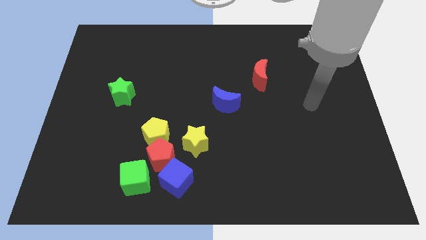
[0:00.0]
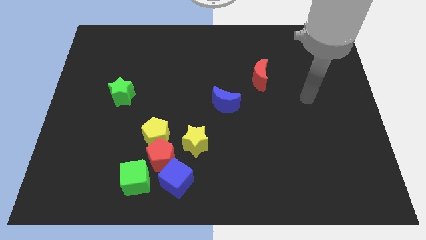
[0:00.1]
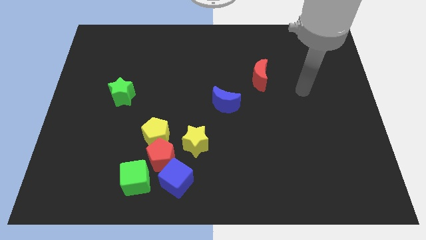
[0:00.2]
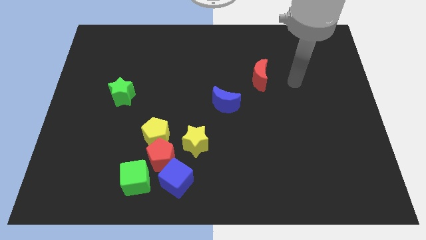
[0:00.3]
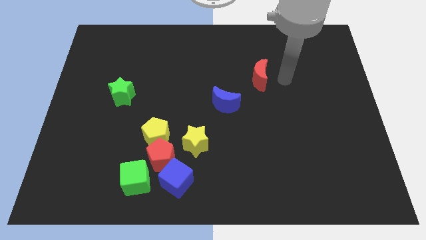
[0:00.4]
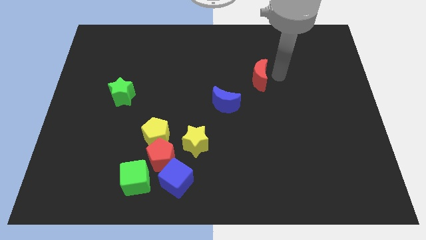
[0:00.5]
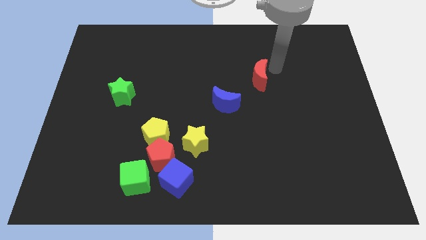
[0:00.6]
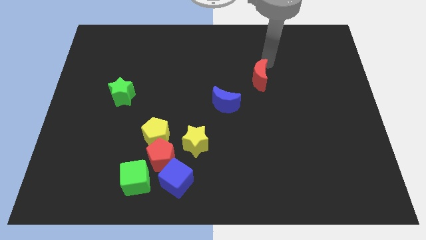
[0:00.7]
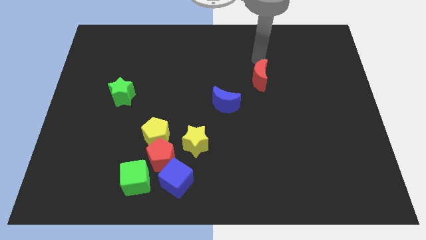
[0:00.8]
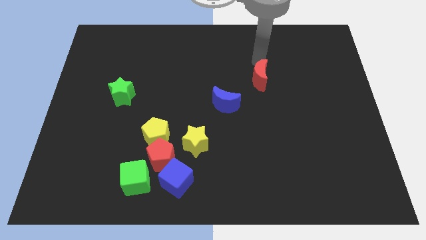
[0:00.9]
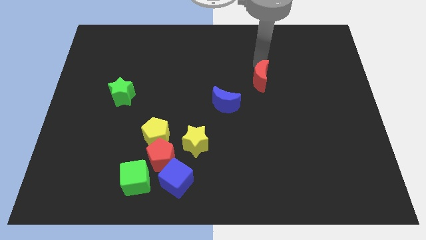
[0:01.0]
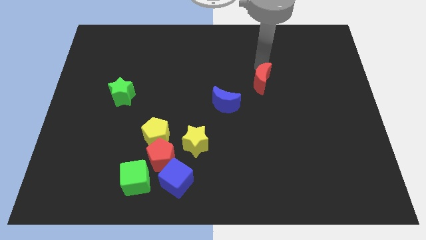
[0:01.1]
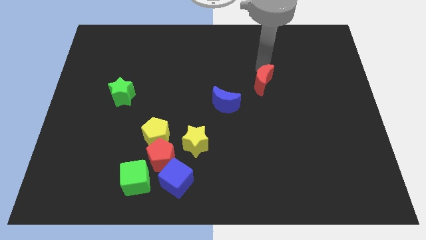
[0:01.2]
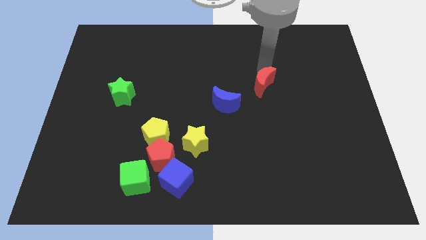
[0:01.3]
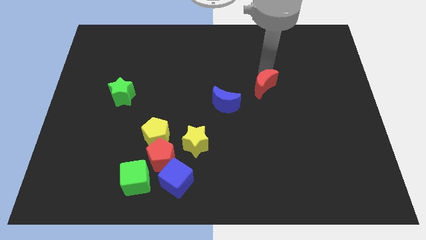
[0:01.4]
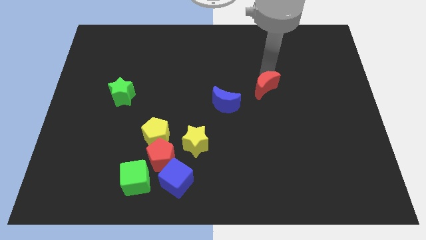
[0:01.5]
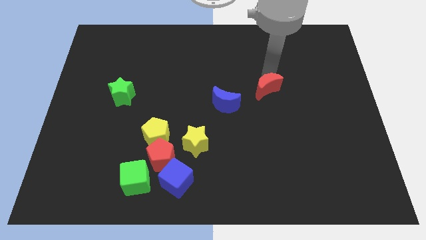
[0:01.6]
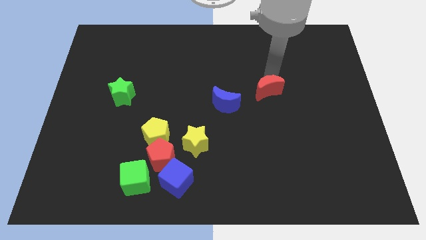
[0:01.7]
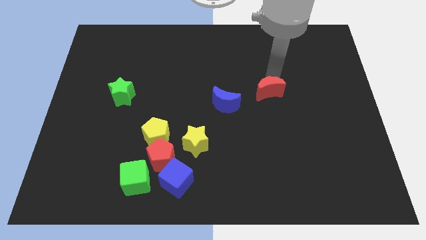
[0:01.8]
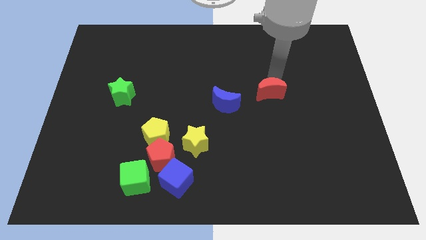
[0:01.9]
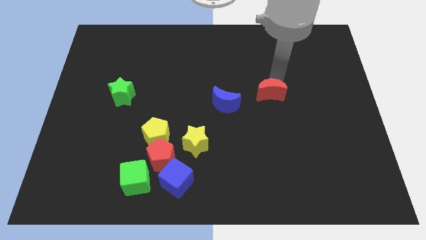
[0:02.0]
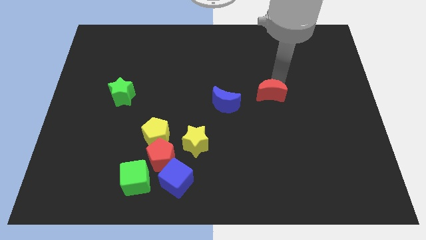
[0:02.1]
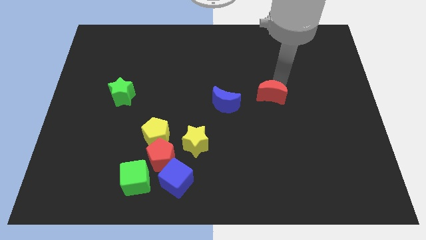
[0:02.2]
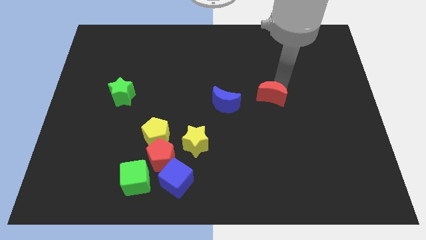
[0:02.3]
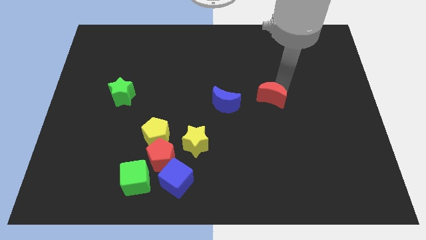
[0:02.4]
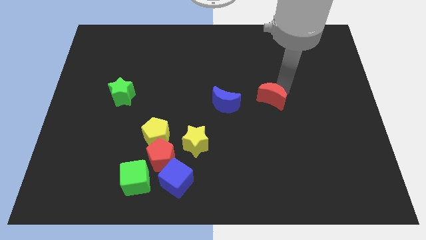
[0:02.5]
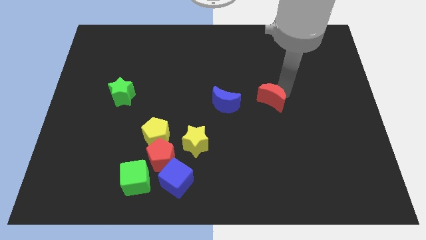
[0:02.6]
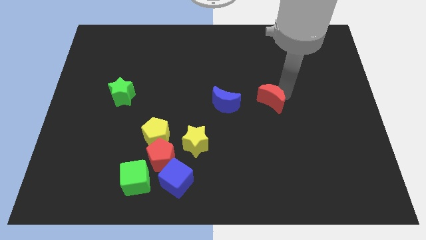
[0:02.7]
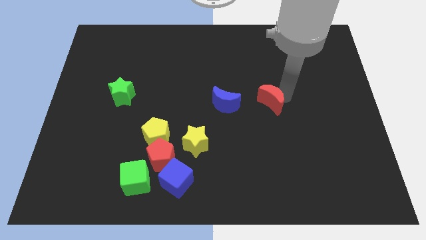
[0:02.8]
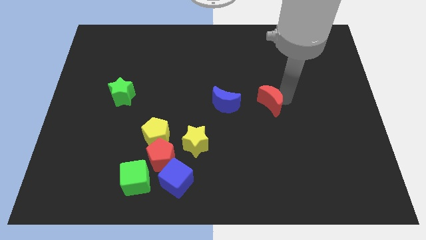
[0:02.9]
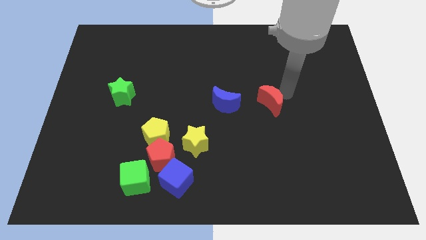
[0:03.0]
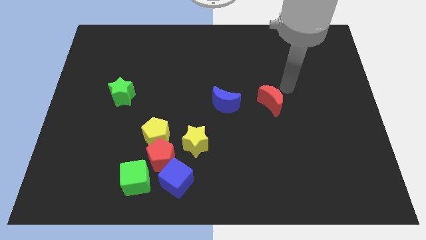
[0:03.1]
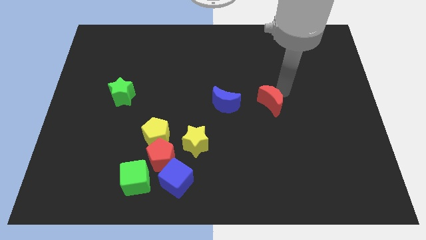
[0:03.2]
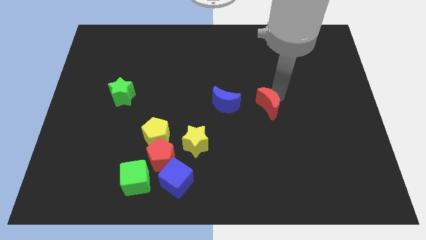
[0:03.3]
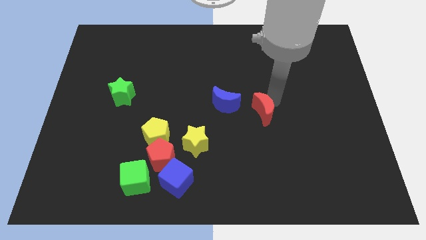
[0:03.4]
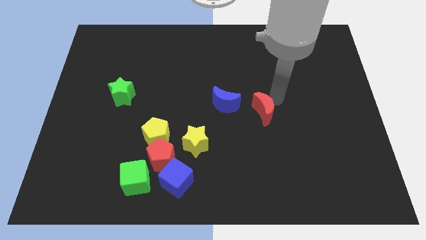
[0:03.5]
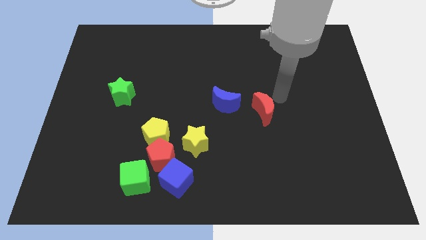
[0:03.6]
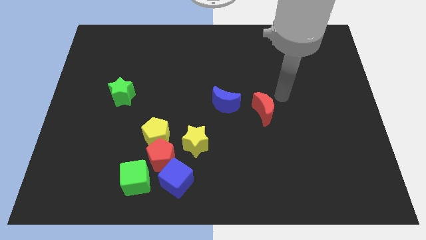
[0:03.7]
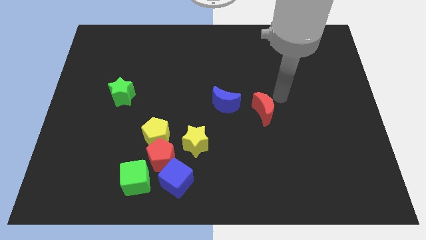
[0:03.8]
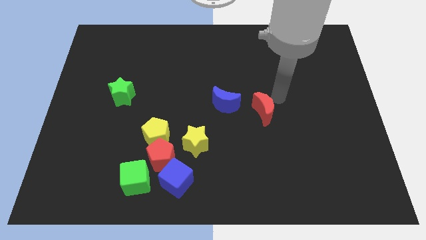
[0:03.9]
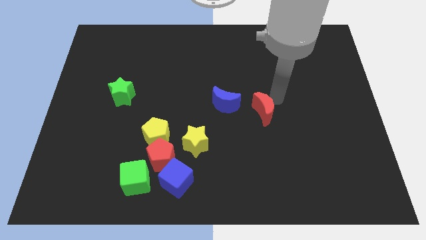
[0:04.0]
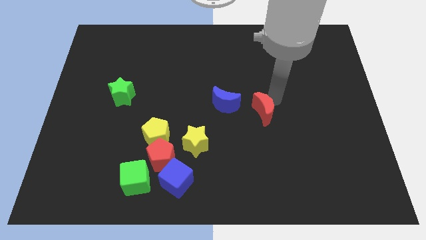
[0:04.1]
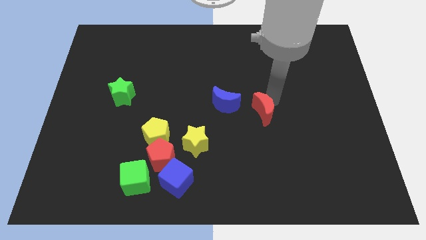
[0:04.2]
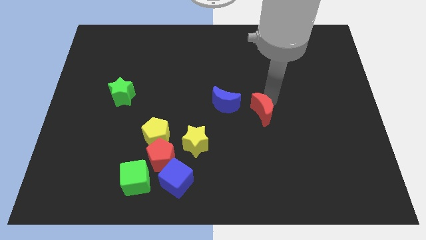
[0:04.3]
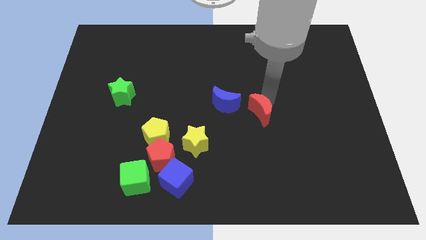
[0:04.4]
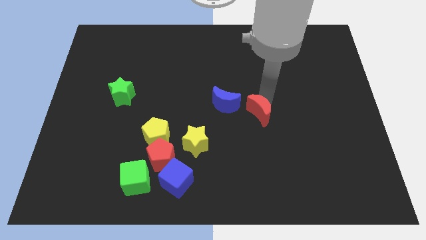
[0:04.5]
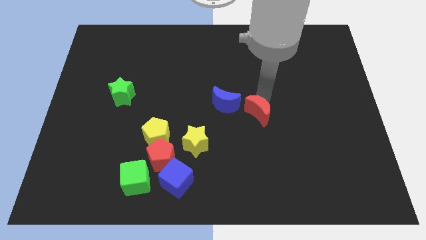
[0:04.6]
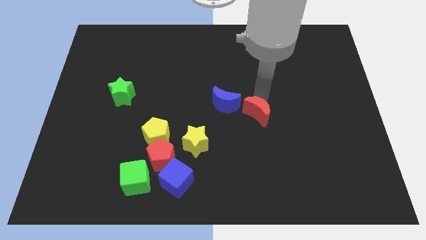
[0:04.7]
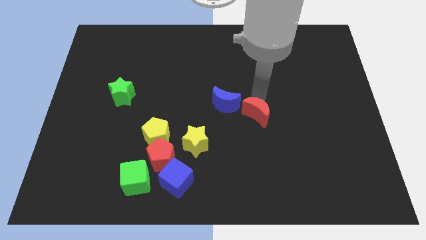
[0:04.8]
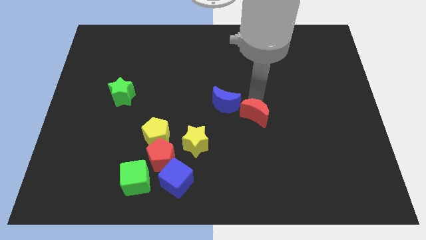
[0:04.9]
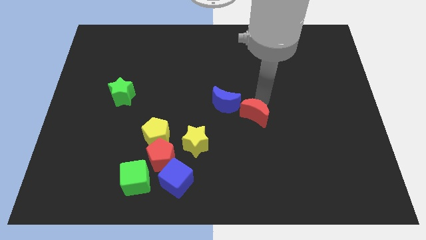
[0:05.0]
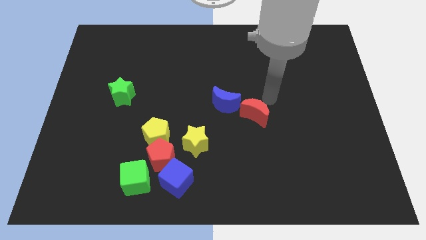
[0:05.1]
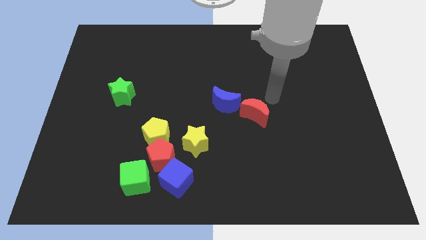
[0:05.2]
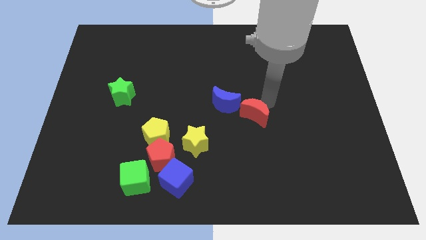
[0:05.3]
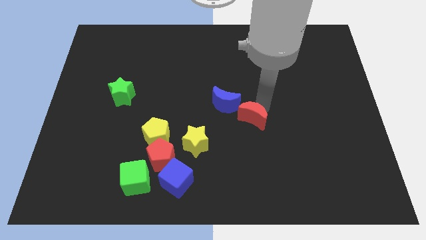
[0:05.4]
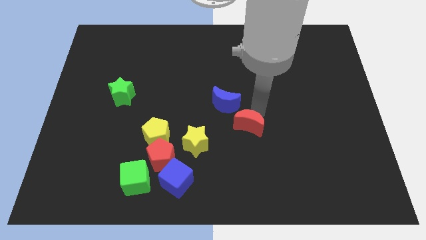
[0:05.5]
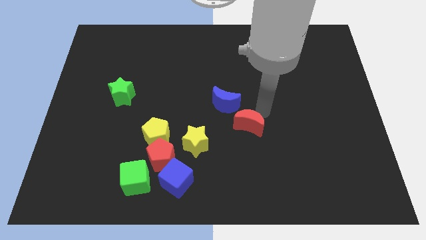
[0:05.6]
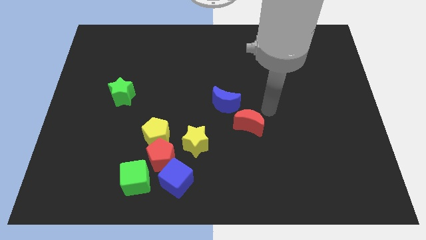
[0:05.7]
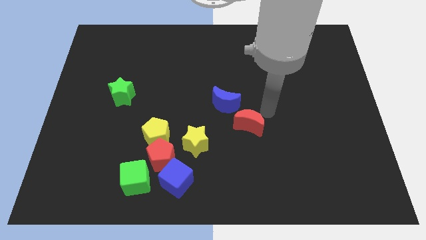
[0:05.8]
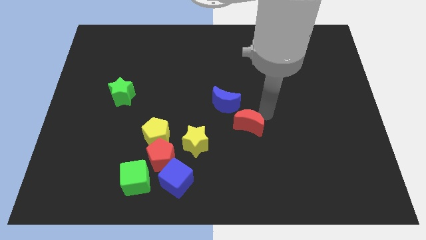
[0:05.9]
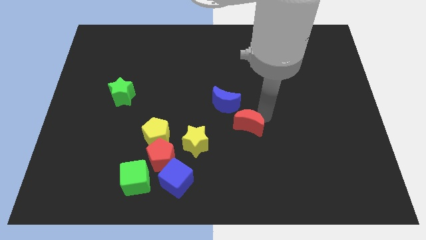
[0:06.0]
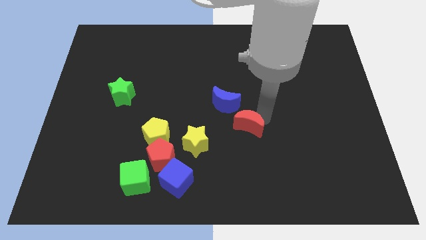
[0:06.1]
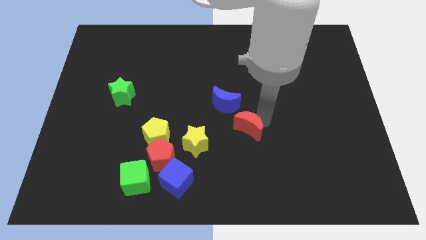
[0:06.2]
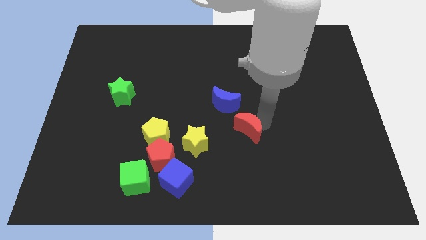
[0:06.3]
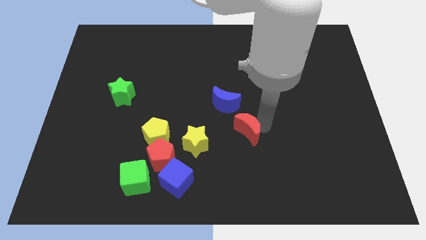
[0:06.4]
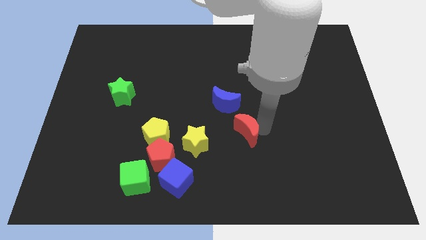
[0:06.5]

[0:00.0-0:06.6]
push the red moon below the blue moon

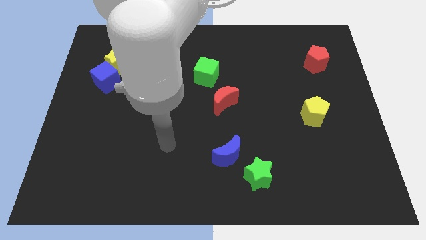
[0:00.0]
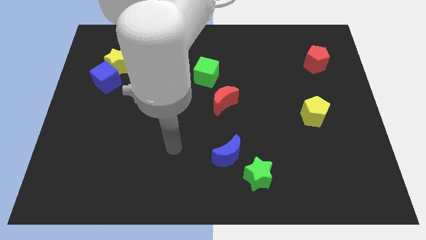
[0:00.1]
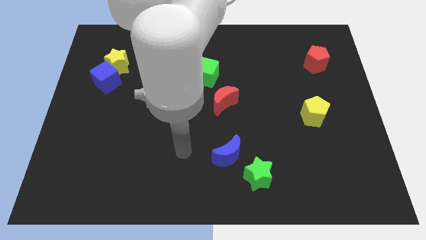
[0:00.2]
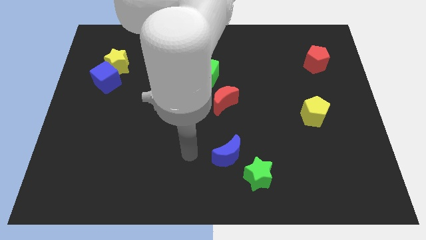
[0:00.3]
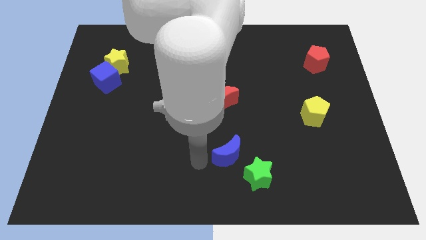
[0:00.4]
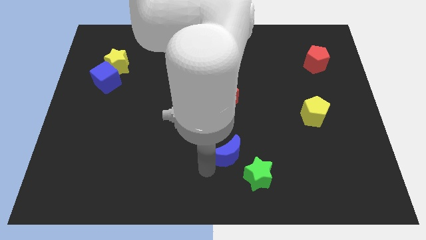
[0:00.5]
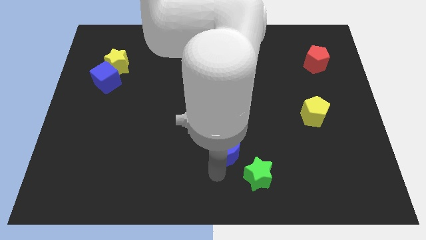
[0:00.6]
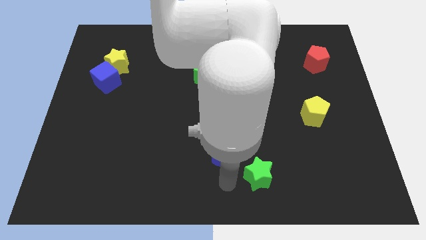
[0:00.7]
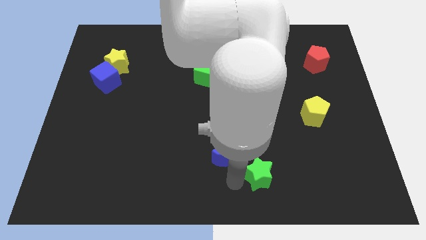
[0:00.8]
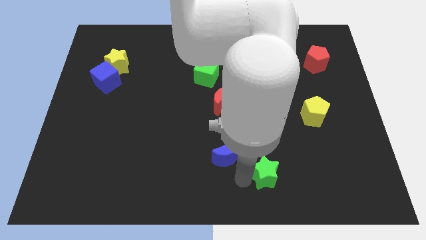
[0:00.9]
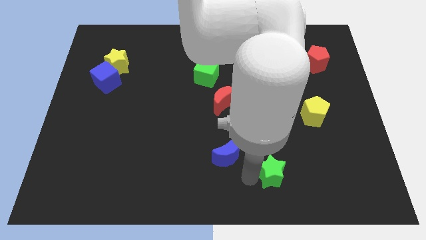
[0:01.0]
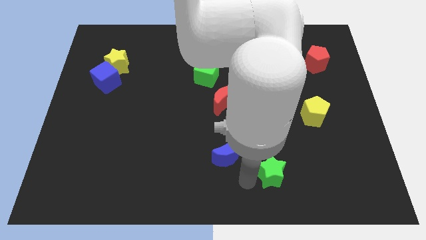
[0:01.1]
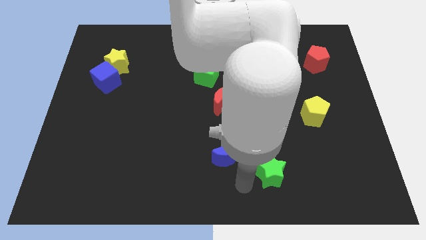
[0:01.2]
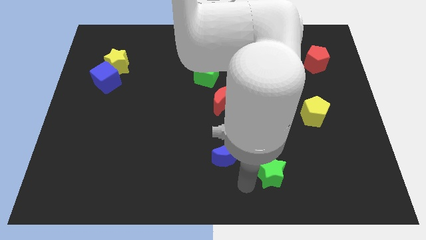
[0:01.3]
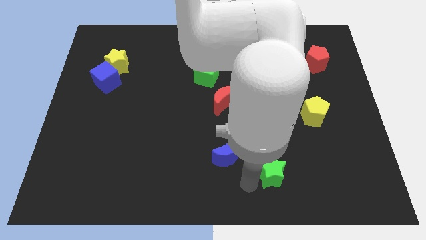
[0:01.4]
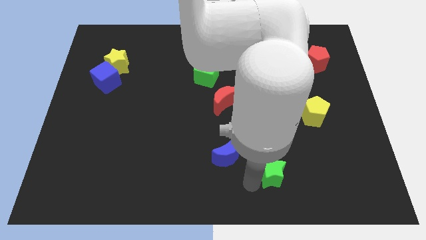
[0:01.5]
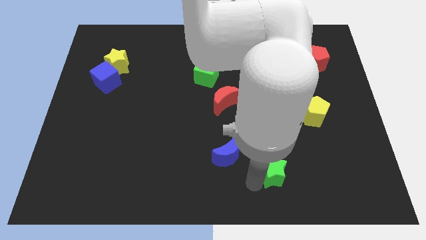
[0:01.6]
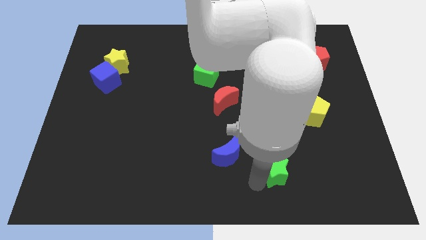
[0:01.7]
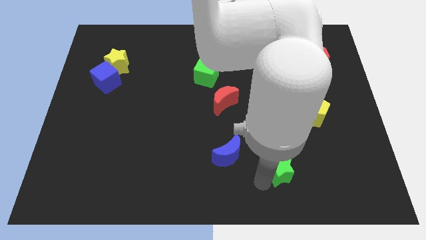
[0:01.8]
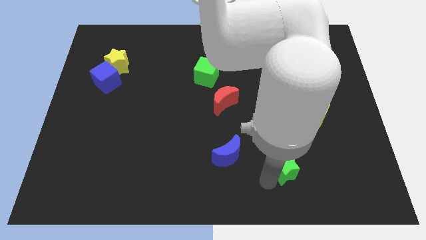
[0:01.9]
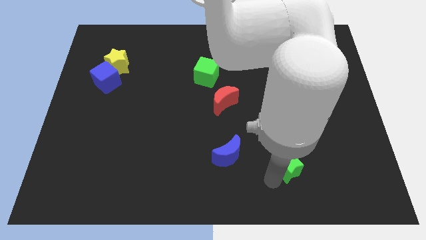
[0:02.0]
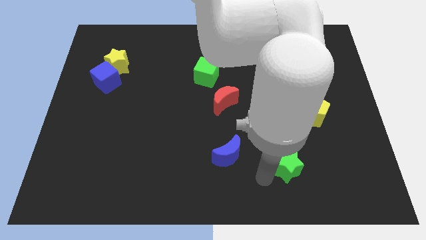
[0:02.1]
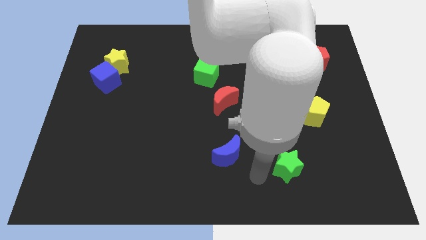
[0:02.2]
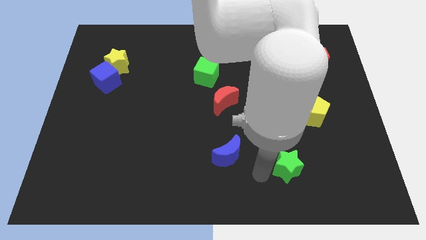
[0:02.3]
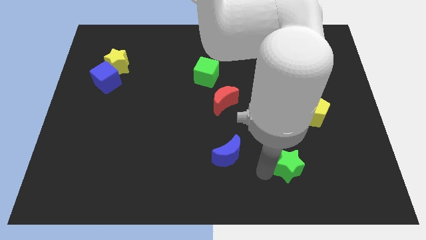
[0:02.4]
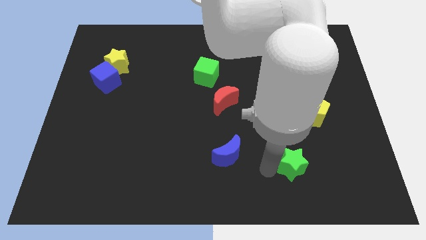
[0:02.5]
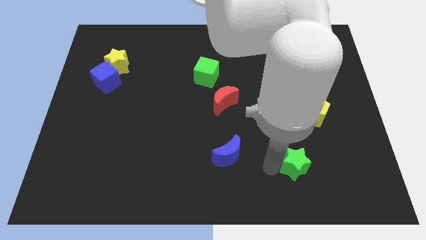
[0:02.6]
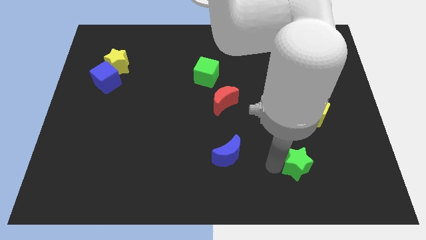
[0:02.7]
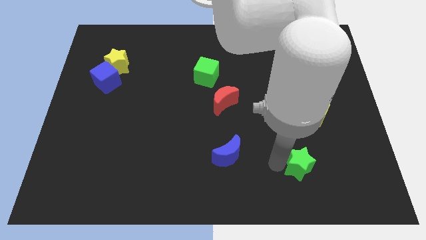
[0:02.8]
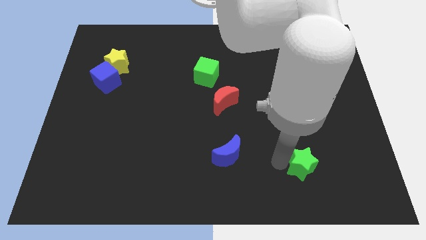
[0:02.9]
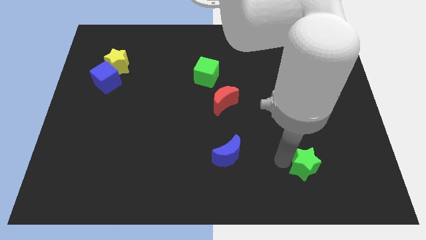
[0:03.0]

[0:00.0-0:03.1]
put the green star to the bottom side of the yellow pentagon
